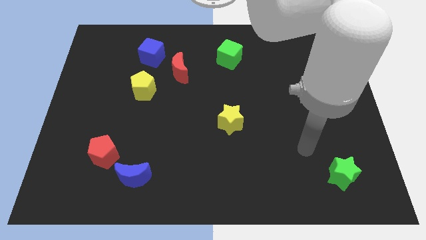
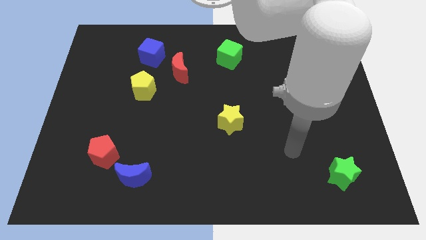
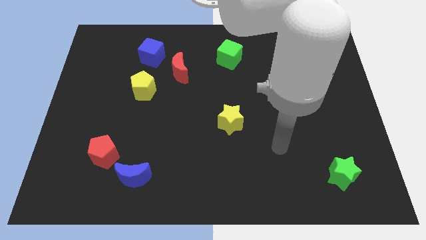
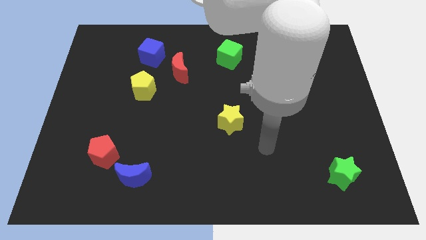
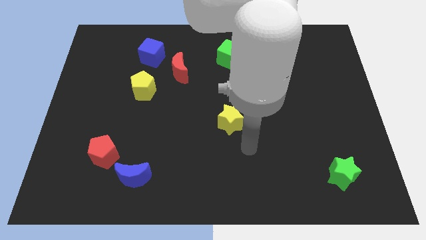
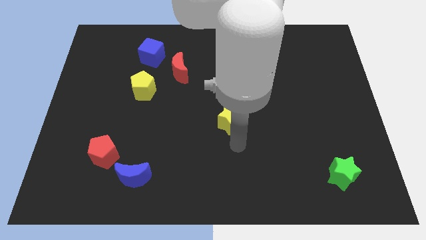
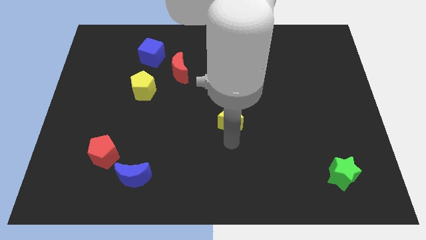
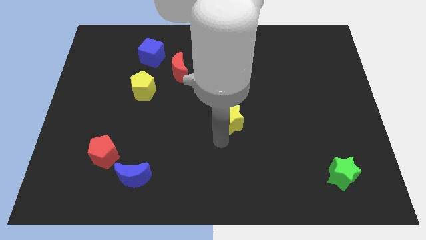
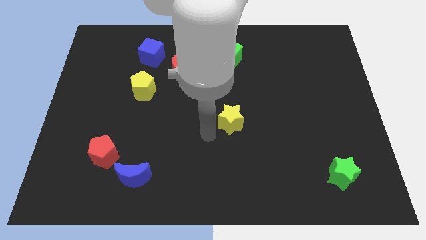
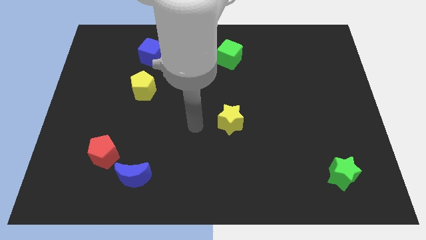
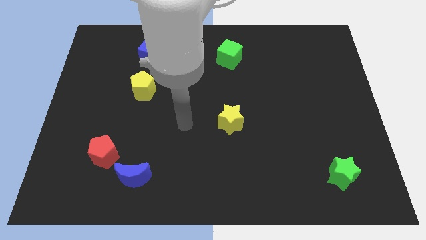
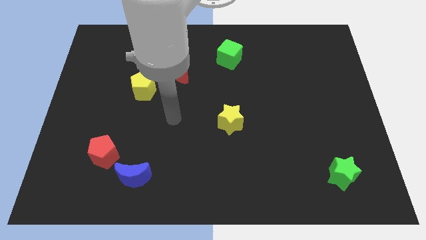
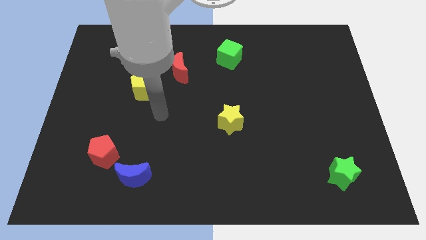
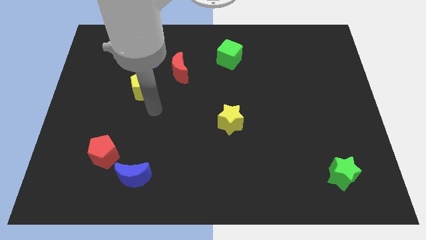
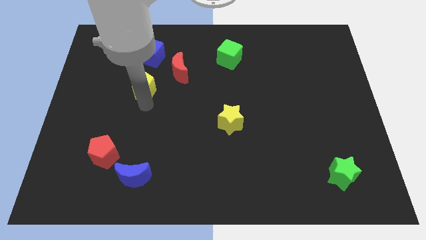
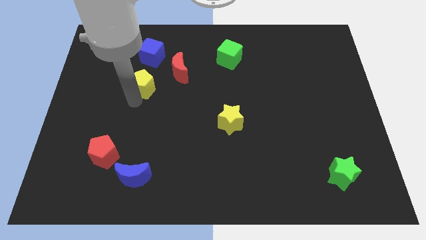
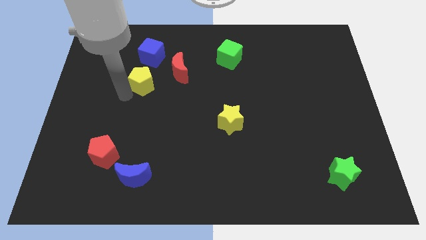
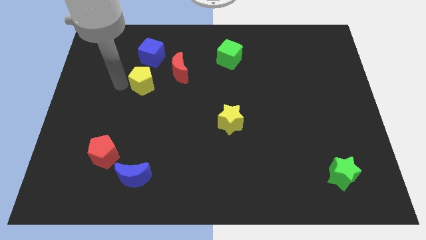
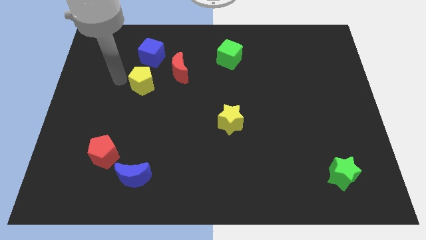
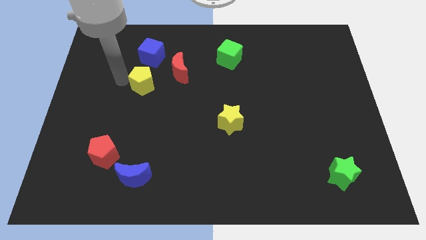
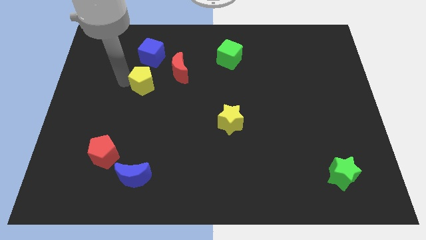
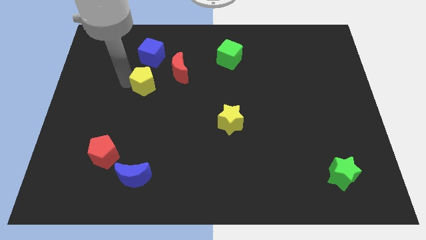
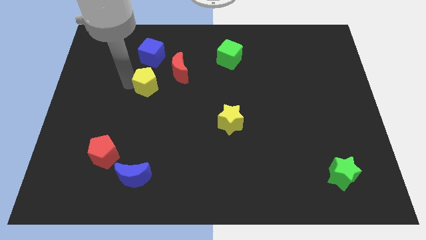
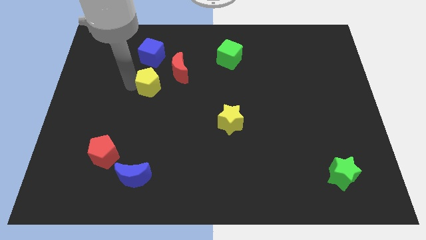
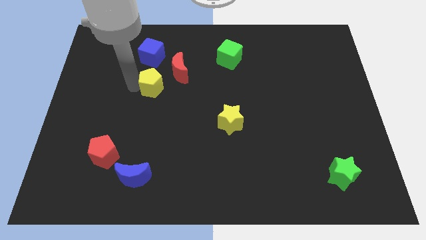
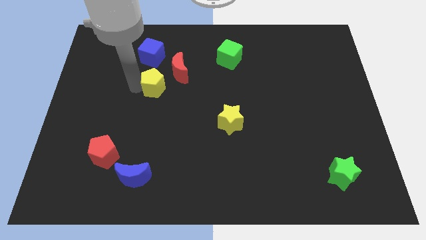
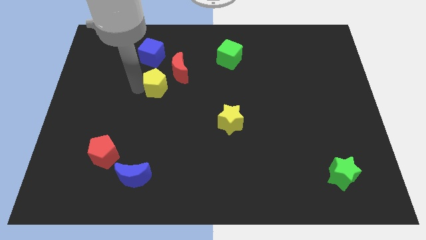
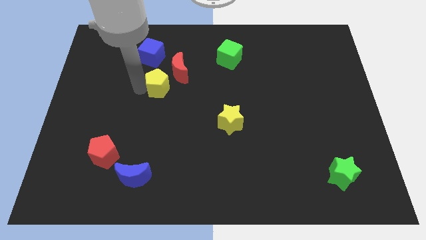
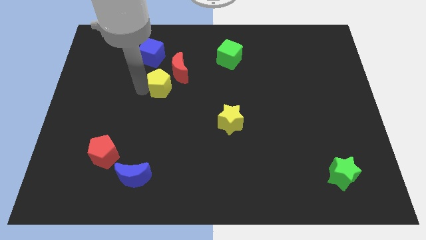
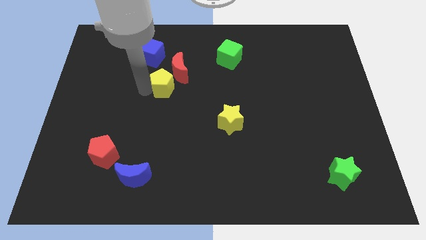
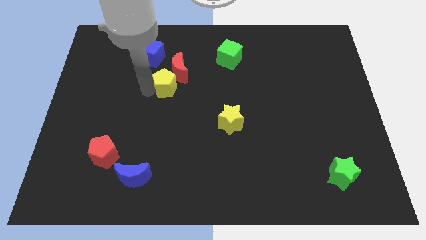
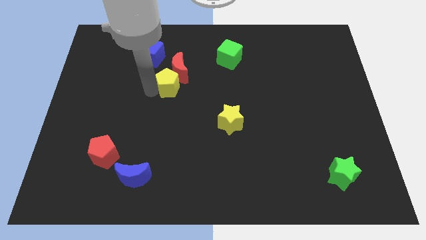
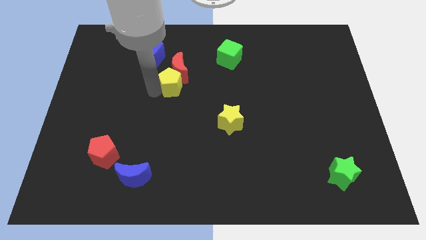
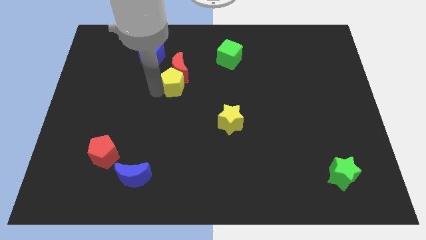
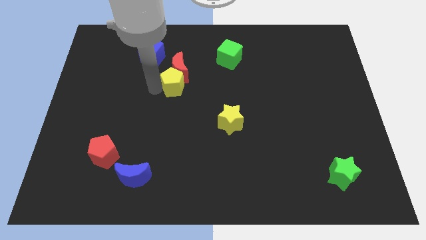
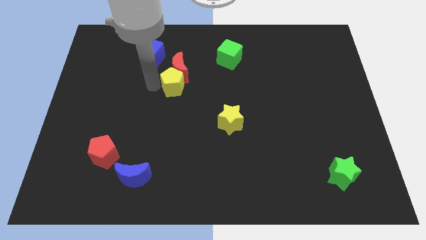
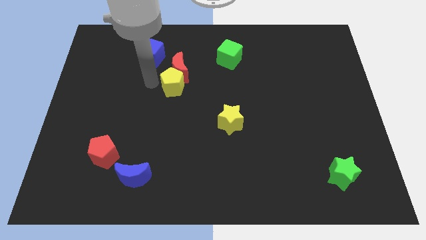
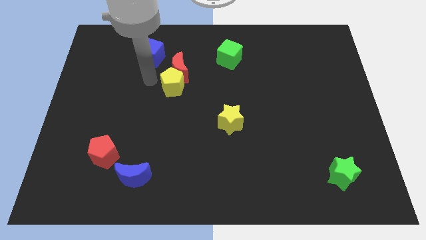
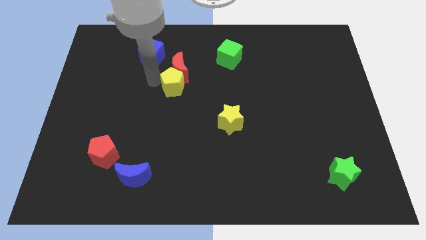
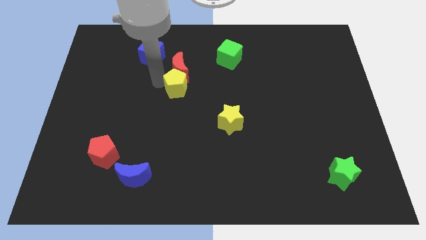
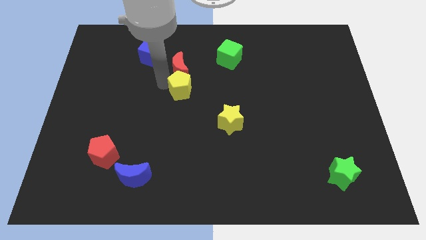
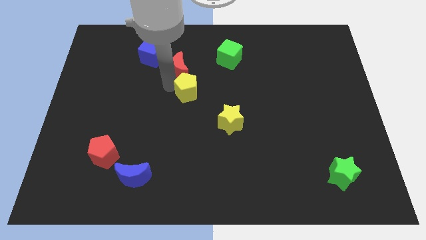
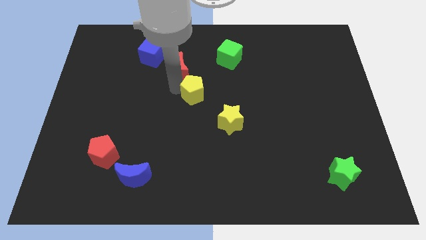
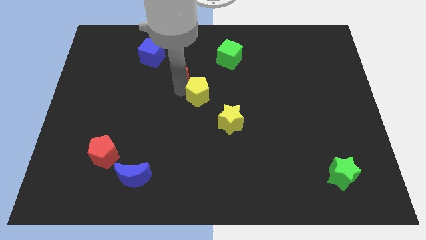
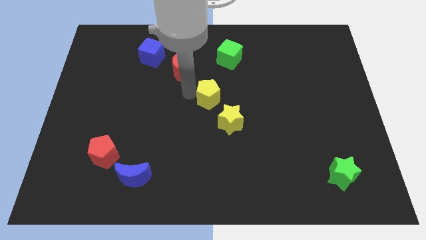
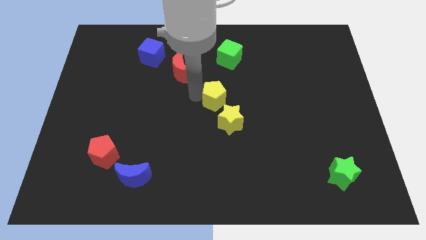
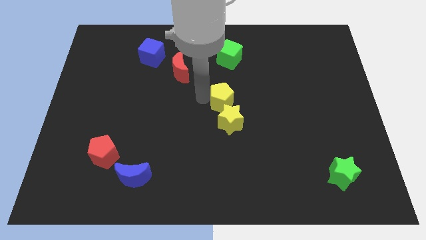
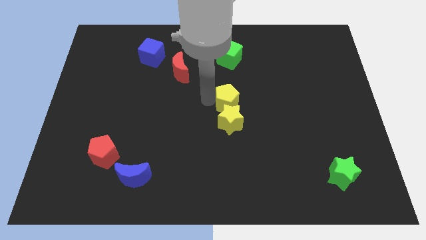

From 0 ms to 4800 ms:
push the yellow pentagon right

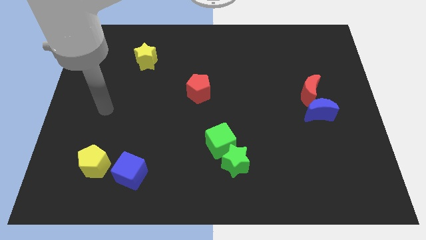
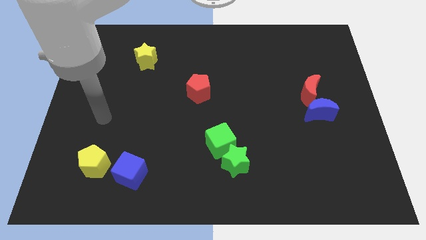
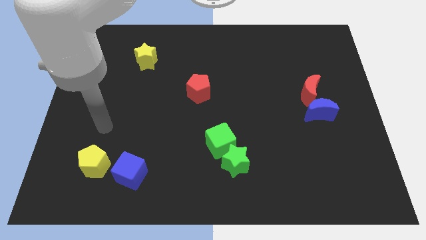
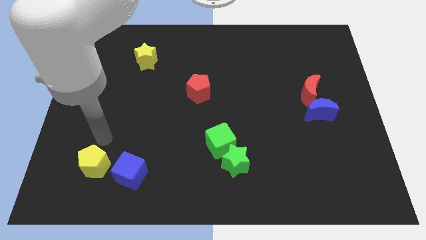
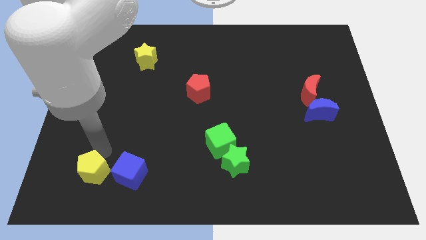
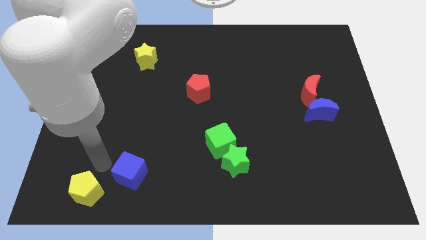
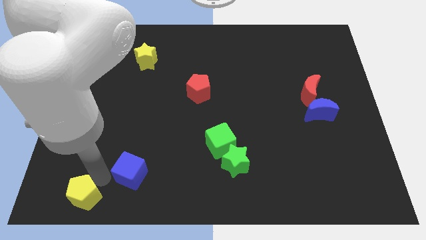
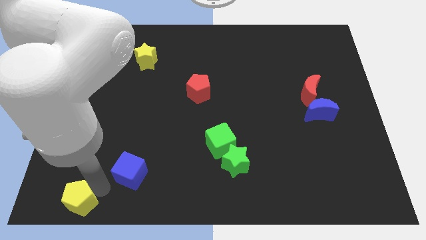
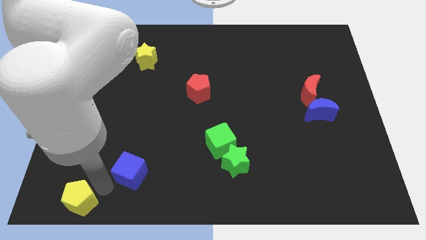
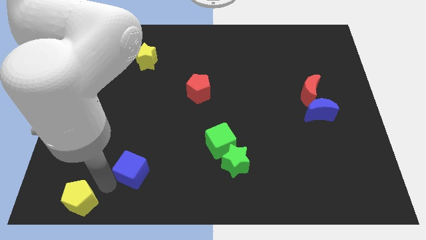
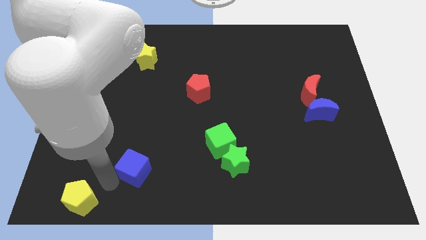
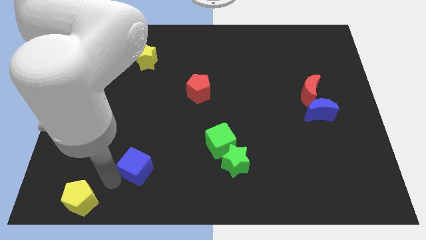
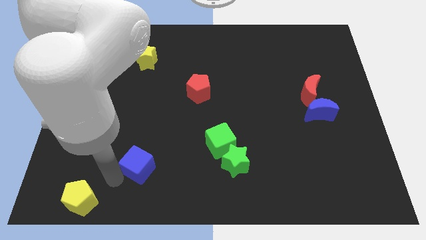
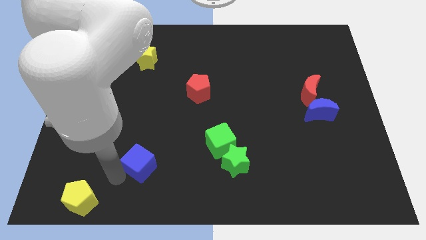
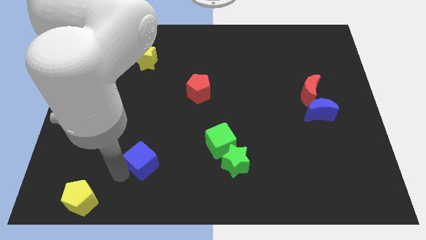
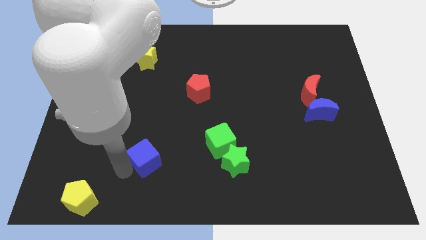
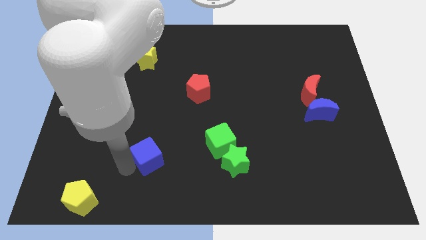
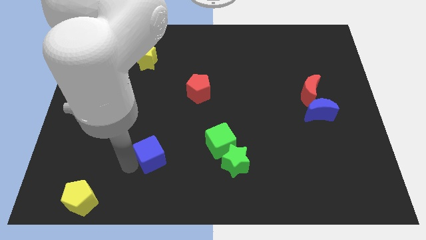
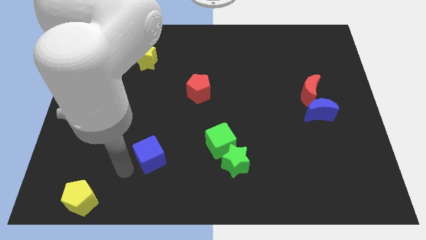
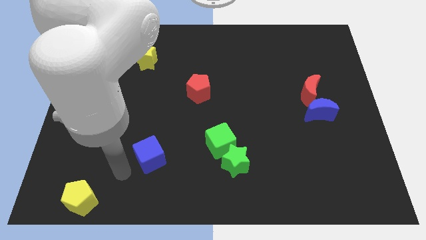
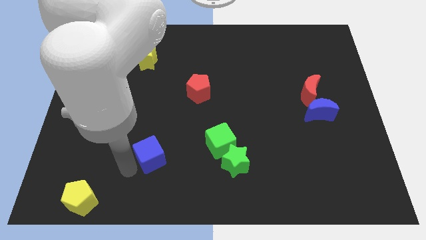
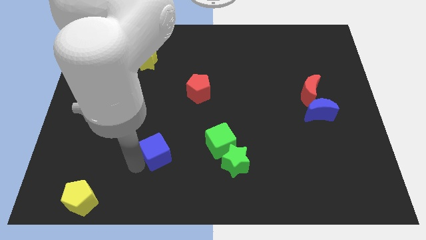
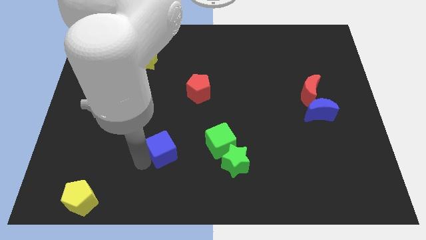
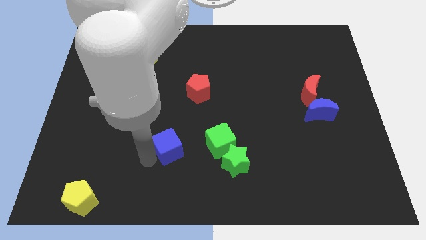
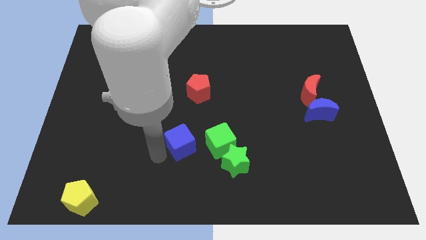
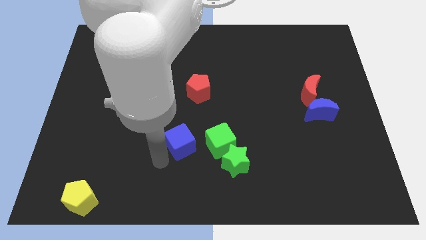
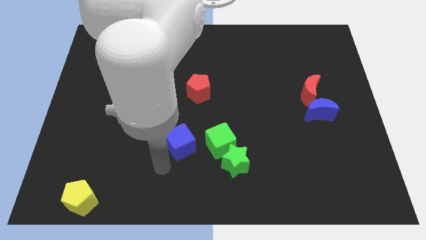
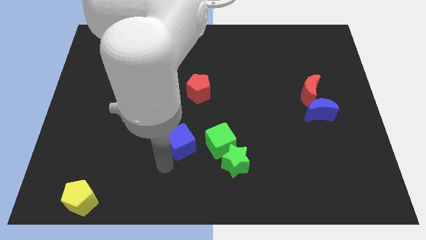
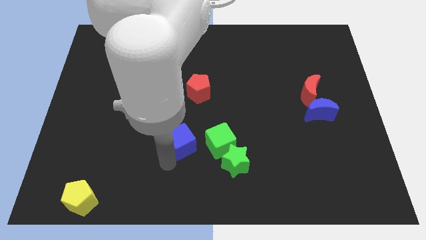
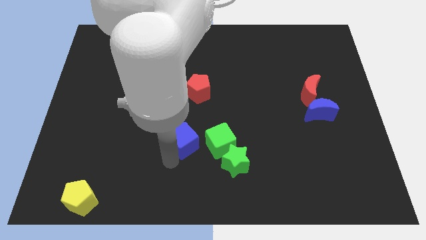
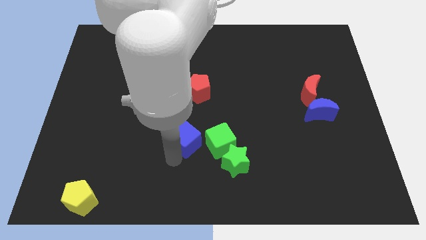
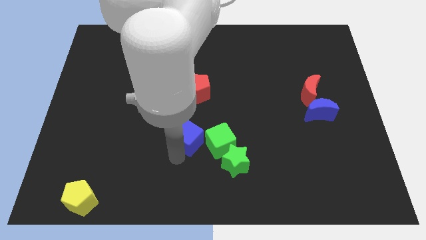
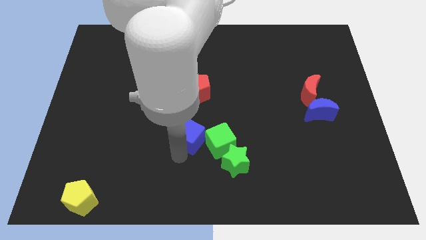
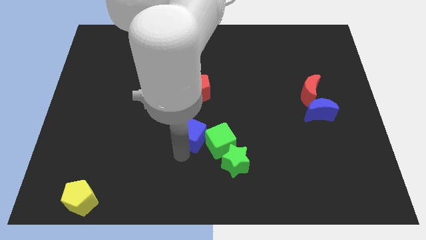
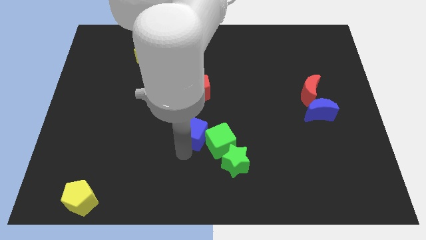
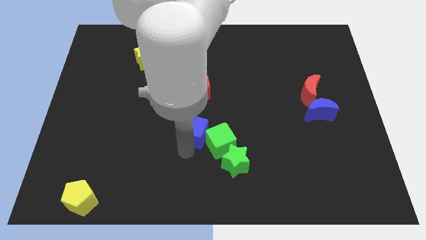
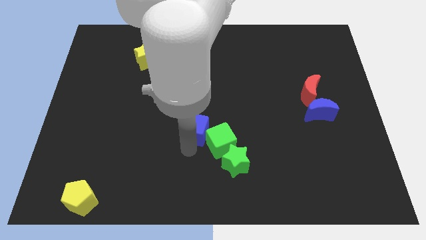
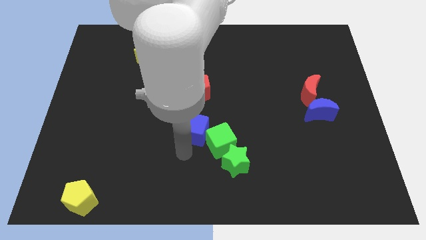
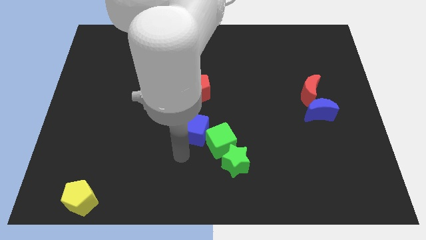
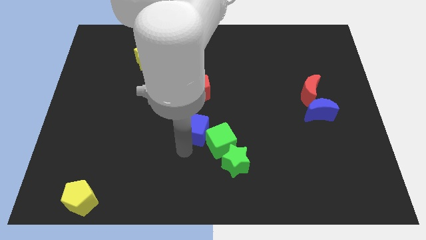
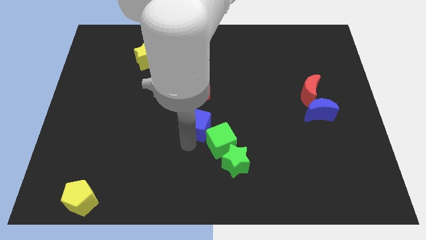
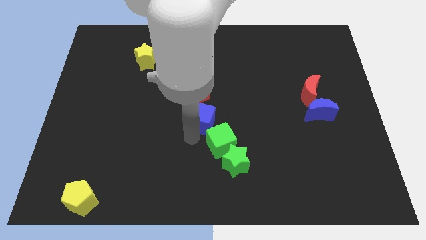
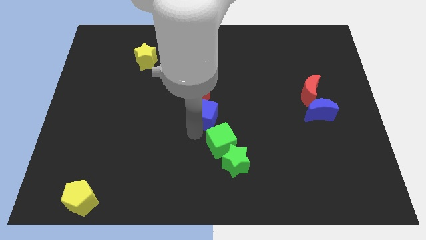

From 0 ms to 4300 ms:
slide the blue cube up and then right
